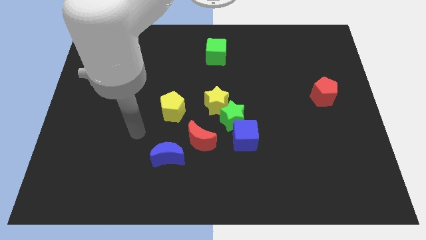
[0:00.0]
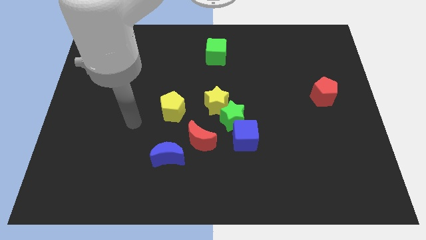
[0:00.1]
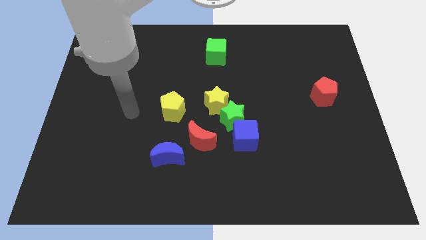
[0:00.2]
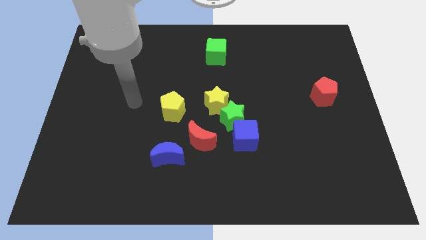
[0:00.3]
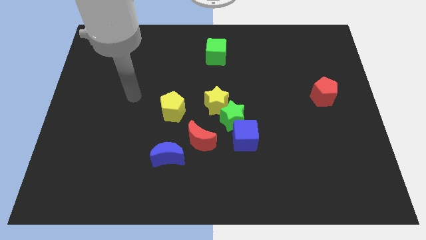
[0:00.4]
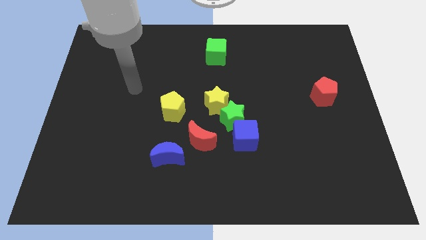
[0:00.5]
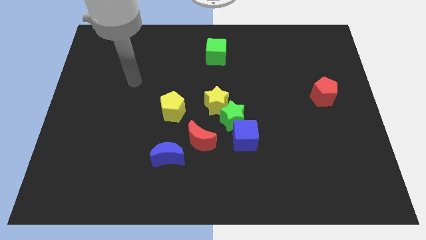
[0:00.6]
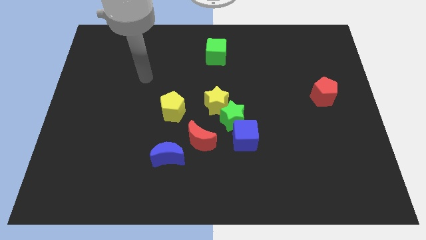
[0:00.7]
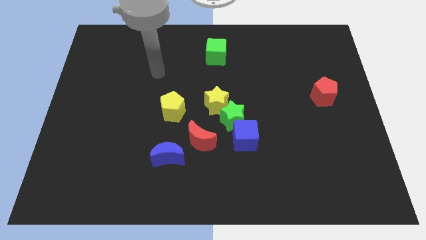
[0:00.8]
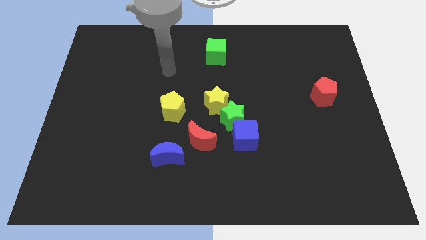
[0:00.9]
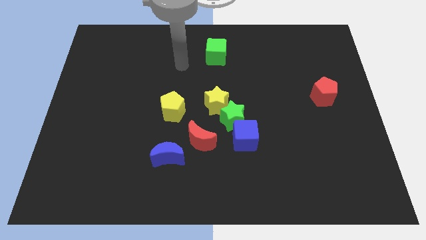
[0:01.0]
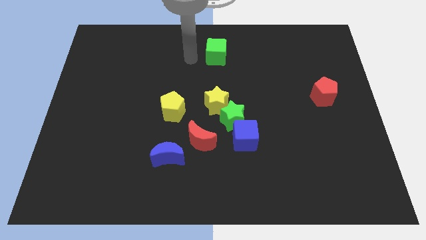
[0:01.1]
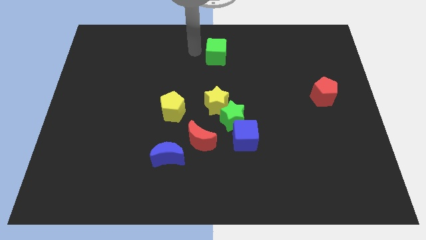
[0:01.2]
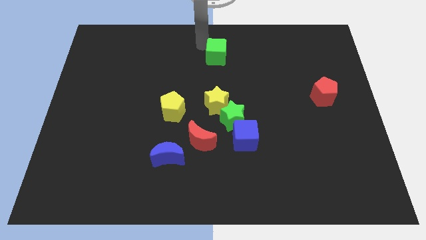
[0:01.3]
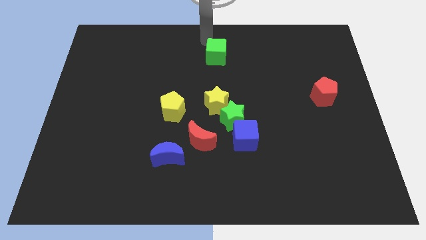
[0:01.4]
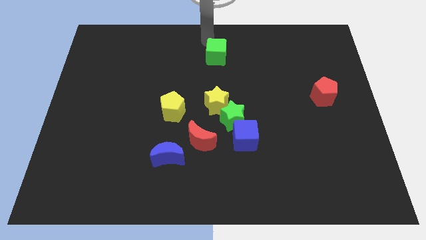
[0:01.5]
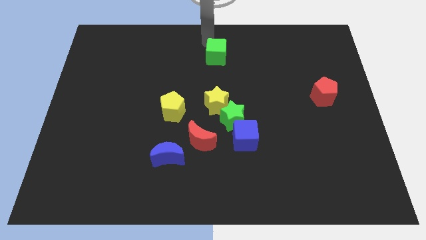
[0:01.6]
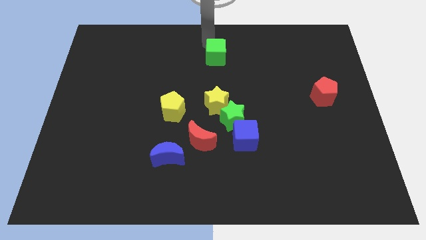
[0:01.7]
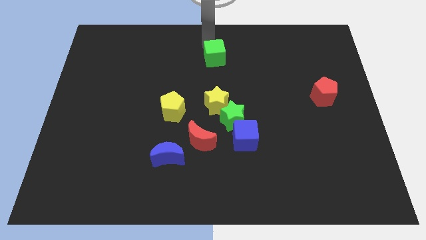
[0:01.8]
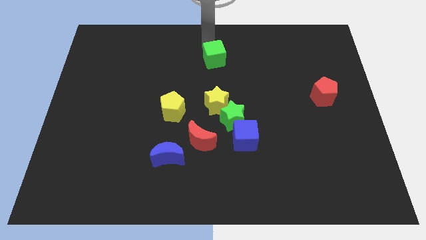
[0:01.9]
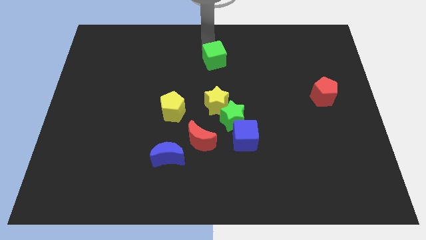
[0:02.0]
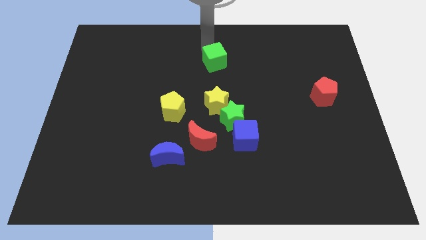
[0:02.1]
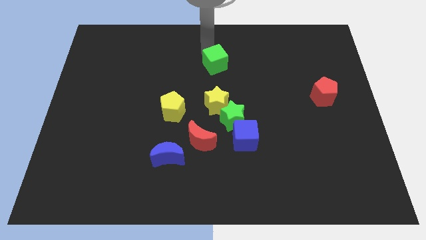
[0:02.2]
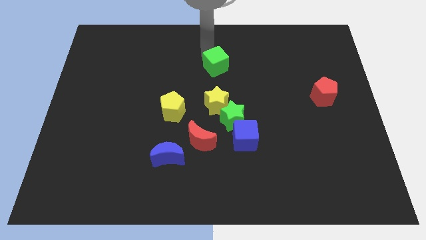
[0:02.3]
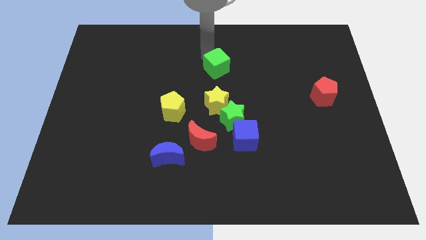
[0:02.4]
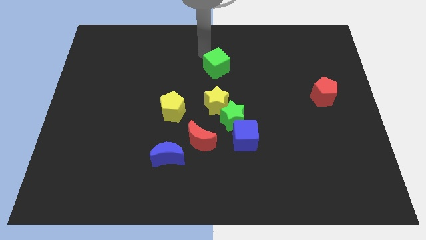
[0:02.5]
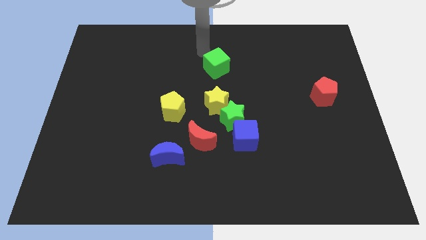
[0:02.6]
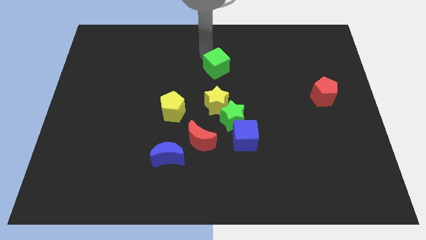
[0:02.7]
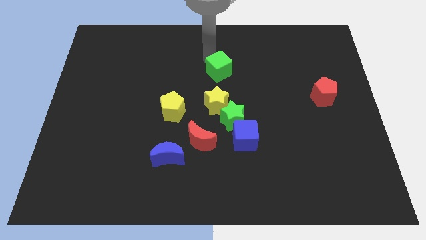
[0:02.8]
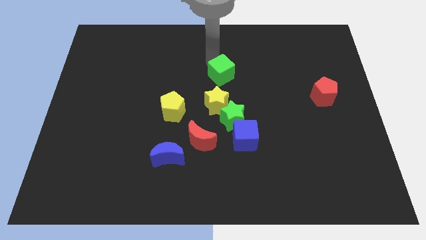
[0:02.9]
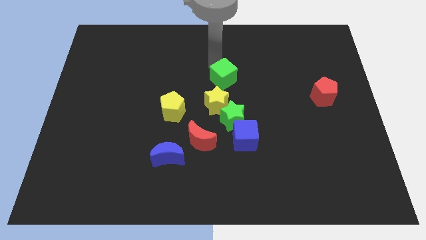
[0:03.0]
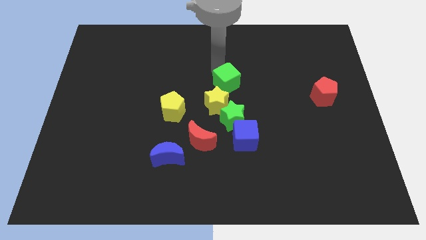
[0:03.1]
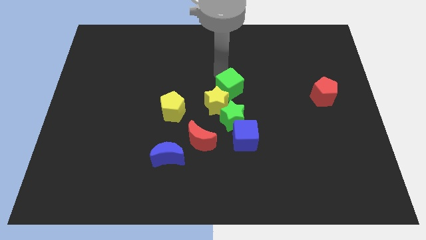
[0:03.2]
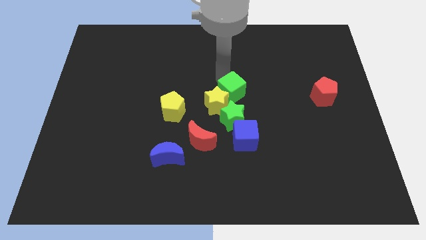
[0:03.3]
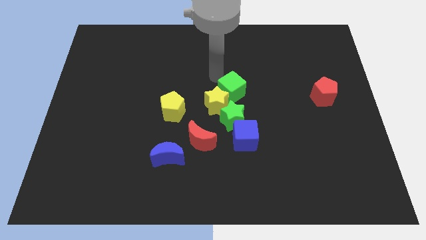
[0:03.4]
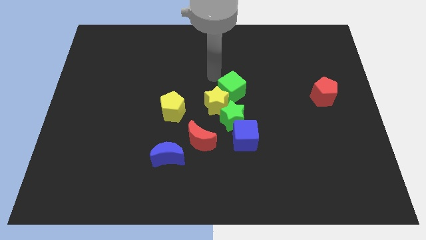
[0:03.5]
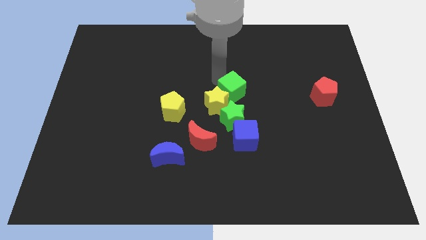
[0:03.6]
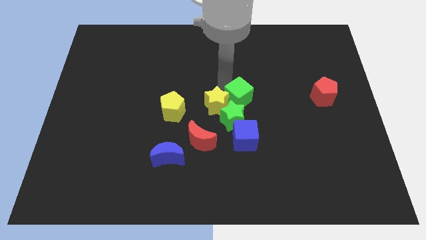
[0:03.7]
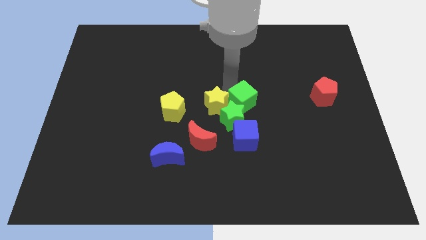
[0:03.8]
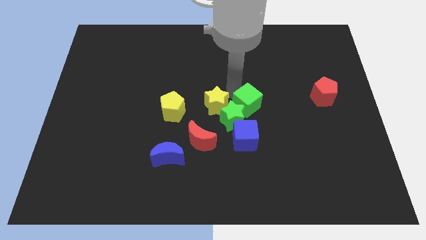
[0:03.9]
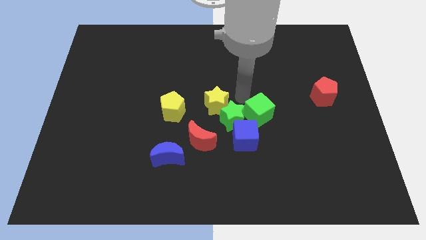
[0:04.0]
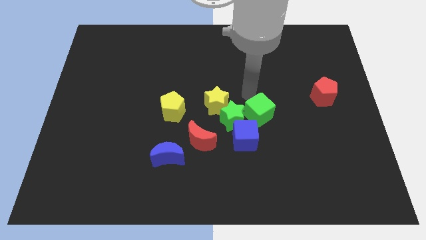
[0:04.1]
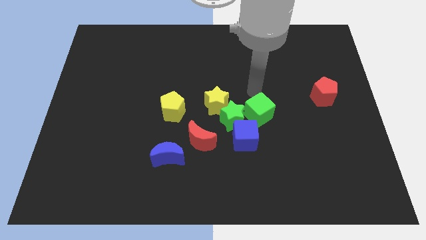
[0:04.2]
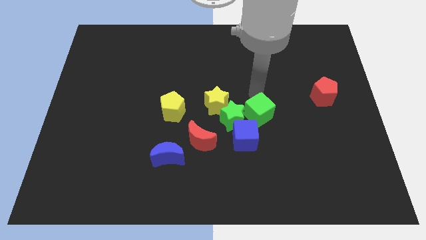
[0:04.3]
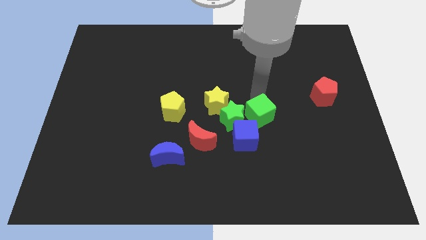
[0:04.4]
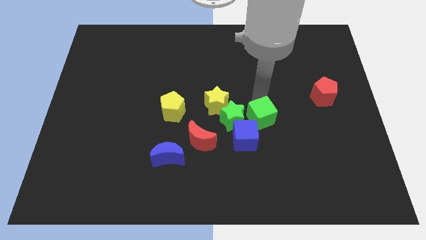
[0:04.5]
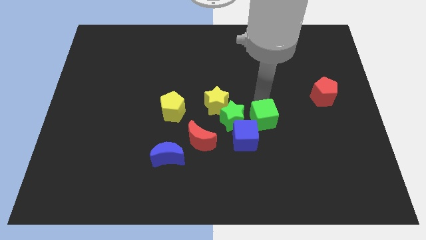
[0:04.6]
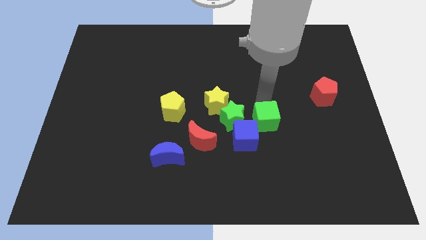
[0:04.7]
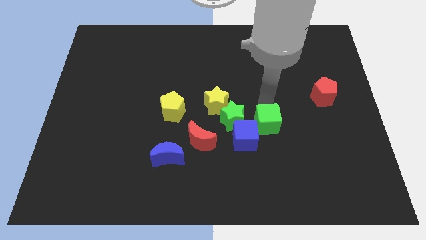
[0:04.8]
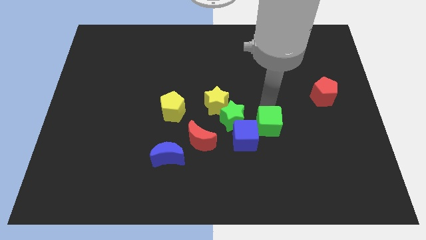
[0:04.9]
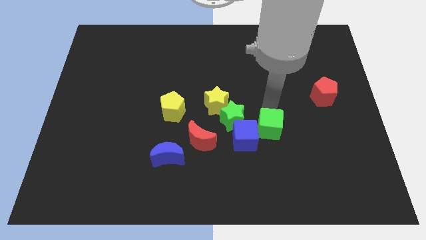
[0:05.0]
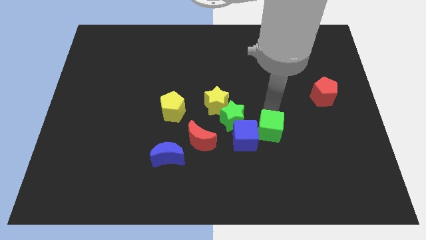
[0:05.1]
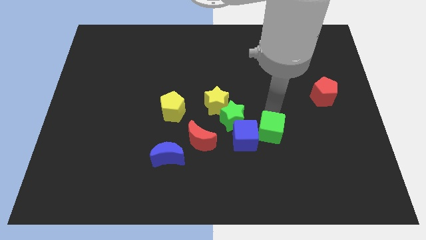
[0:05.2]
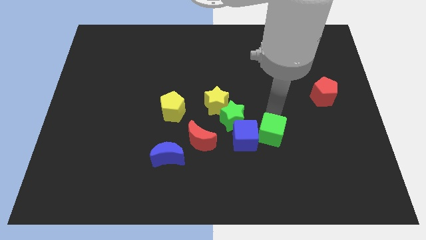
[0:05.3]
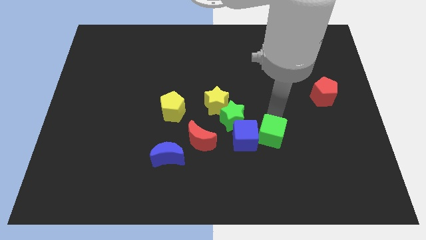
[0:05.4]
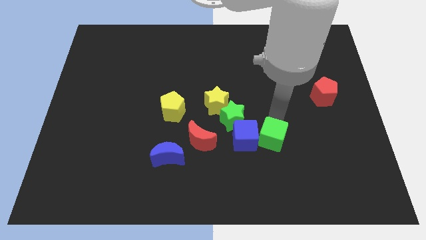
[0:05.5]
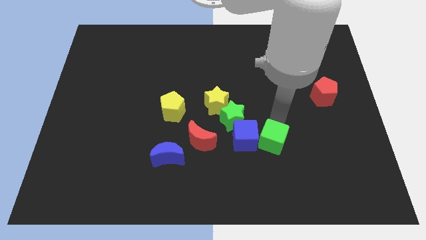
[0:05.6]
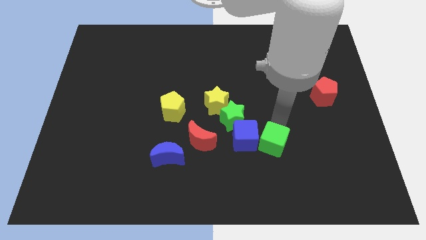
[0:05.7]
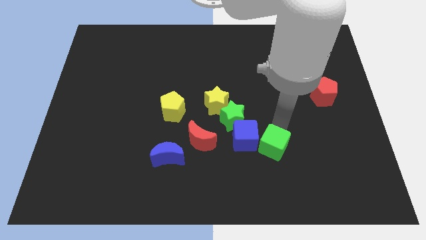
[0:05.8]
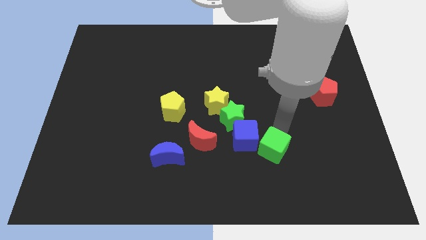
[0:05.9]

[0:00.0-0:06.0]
push the green cube down

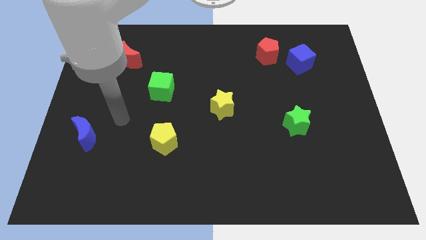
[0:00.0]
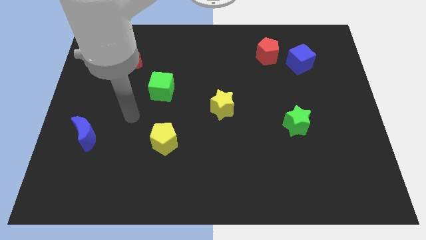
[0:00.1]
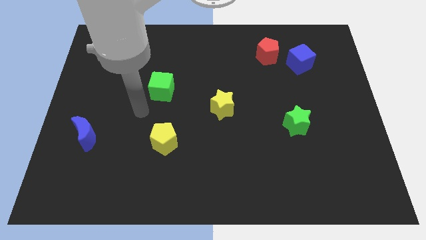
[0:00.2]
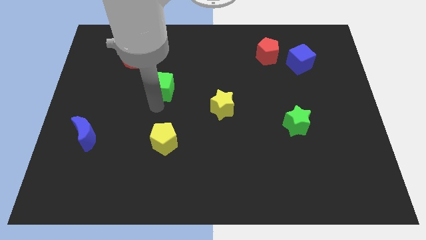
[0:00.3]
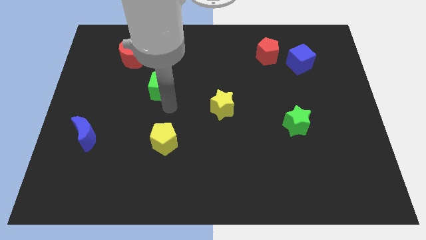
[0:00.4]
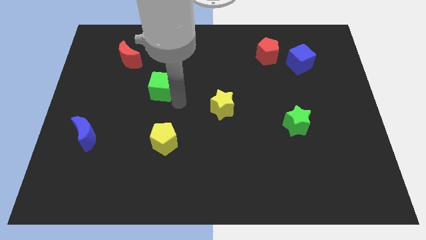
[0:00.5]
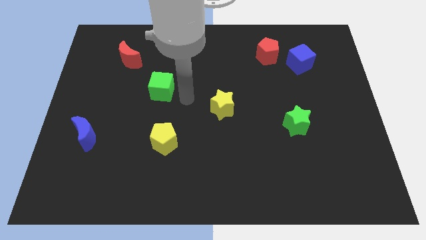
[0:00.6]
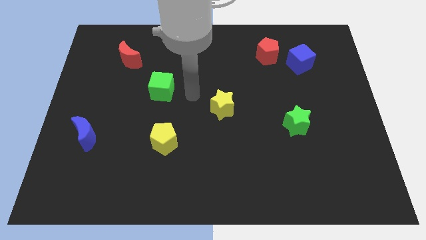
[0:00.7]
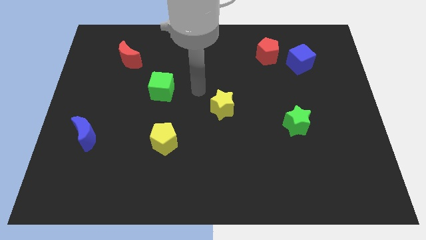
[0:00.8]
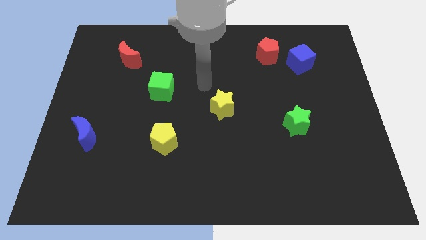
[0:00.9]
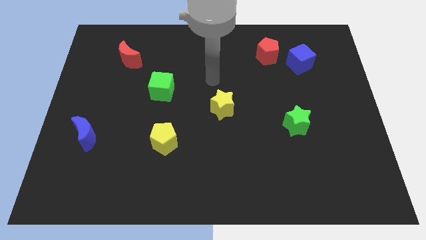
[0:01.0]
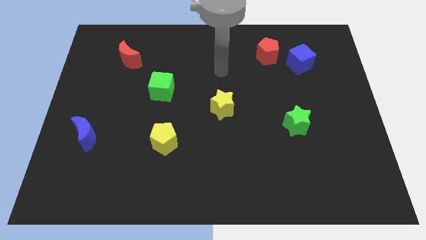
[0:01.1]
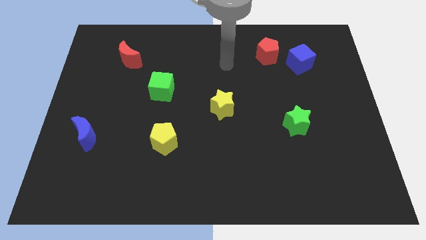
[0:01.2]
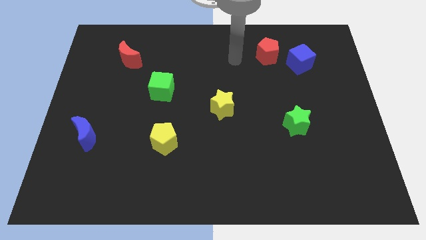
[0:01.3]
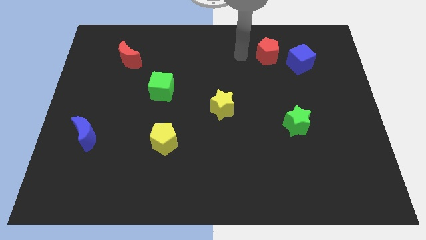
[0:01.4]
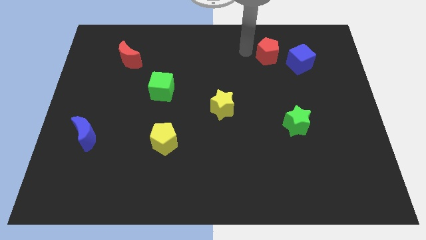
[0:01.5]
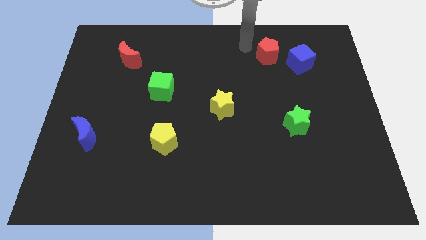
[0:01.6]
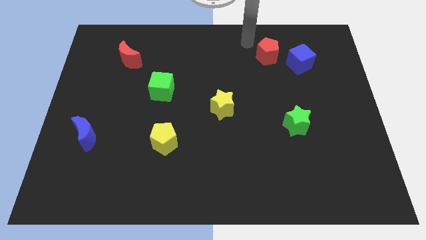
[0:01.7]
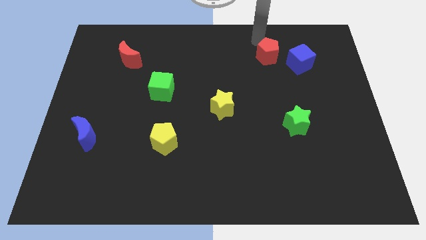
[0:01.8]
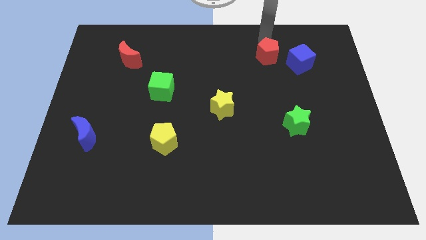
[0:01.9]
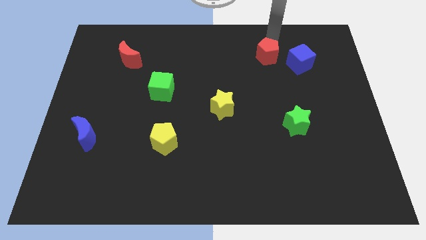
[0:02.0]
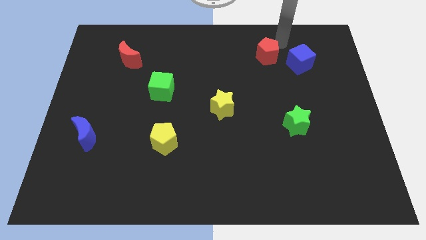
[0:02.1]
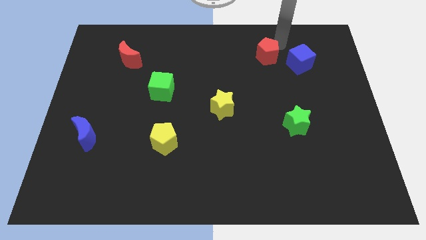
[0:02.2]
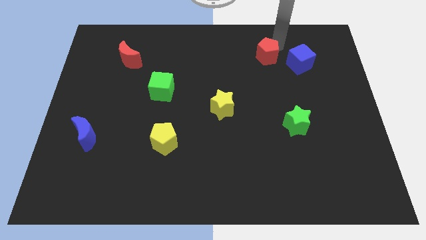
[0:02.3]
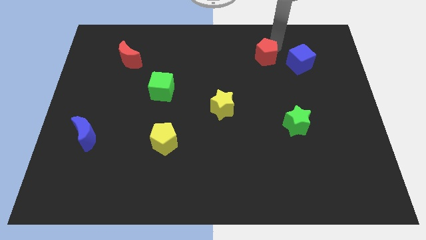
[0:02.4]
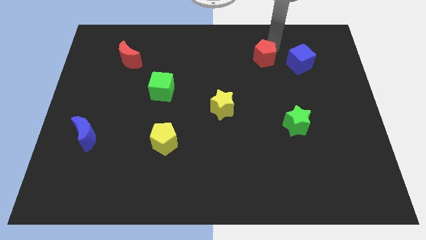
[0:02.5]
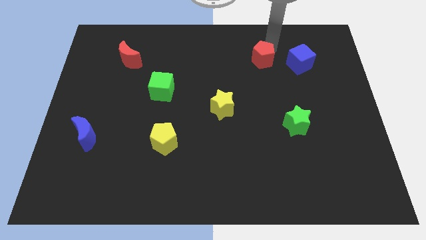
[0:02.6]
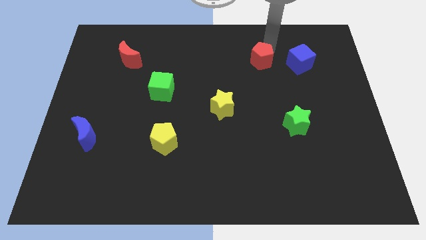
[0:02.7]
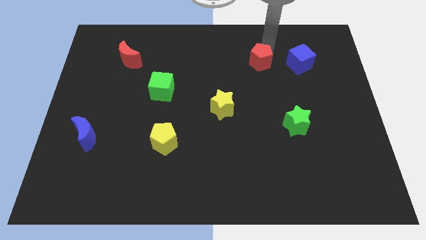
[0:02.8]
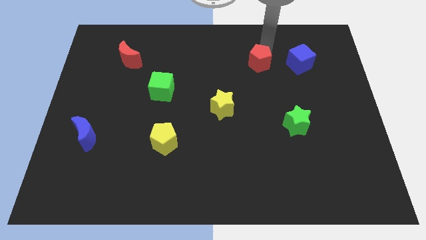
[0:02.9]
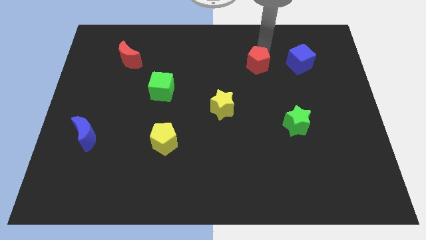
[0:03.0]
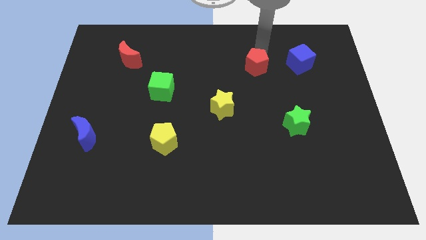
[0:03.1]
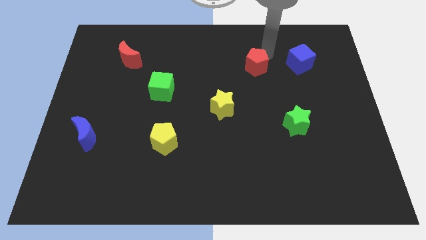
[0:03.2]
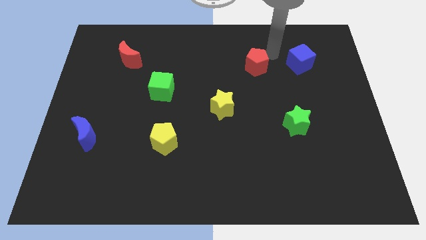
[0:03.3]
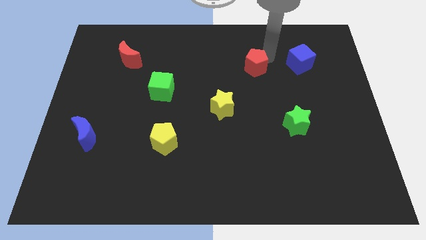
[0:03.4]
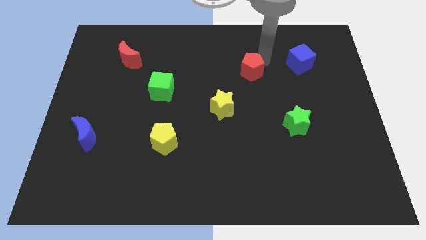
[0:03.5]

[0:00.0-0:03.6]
slide the red pentagon down and then to the left slightly
